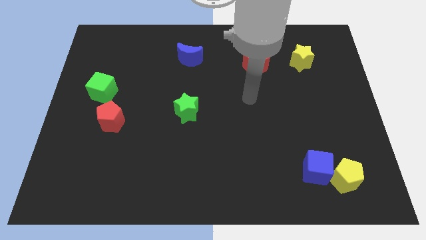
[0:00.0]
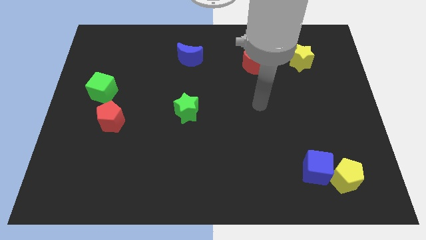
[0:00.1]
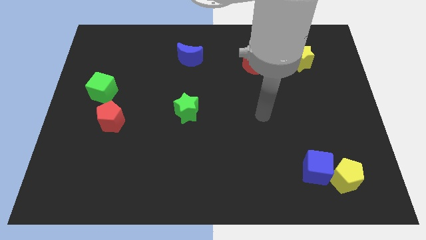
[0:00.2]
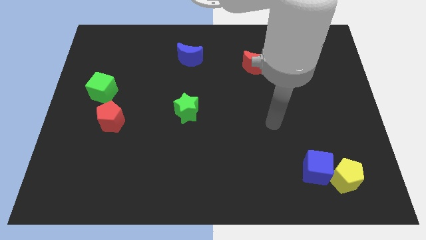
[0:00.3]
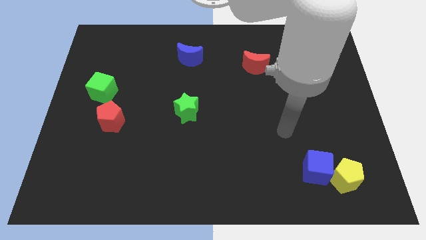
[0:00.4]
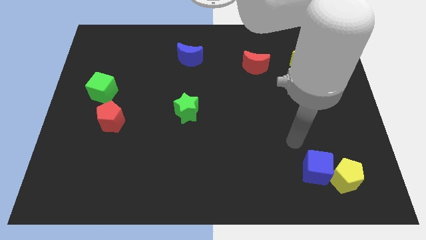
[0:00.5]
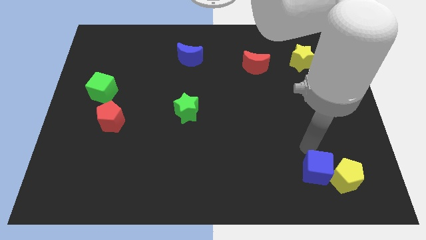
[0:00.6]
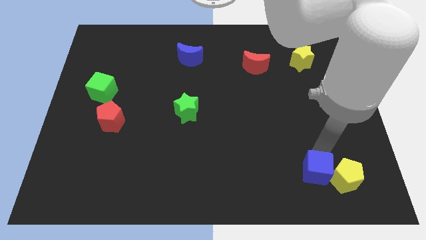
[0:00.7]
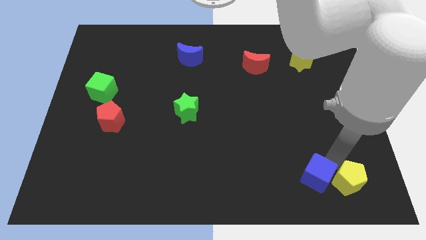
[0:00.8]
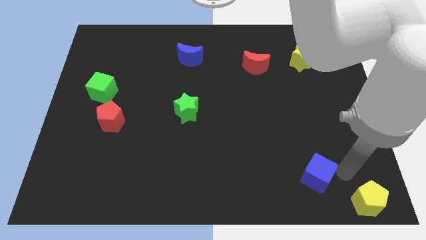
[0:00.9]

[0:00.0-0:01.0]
pull the blue cube apart from the yellow pentagon

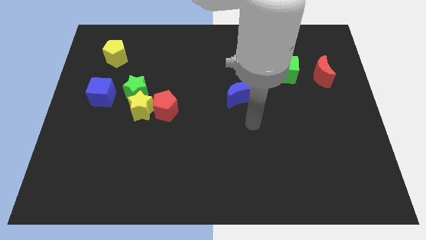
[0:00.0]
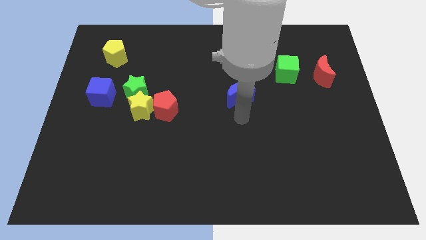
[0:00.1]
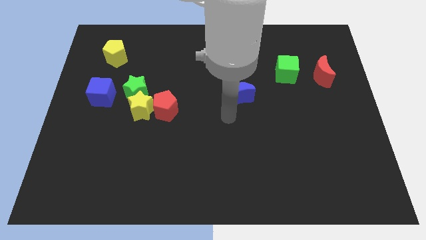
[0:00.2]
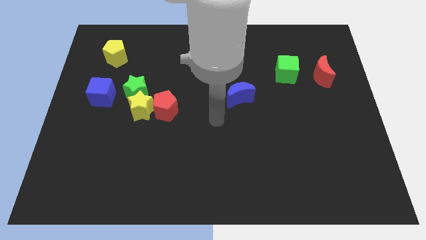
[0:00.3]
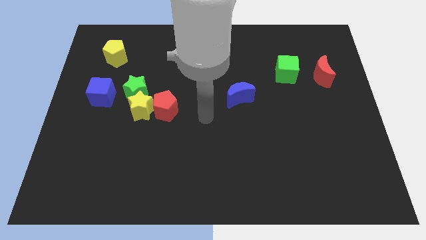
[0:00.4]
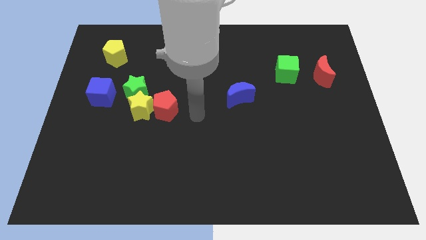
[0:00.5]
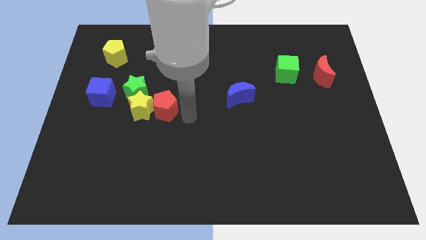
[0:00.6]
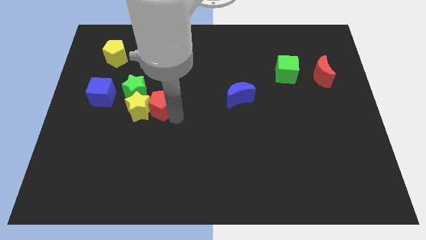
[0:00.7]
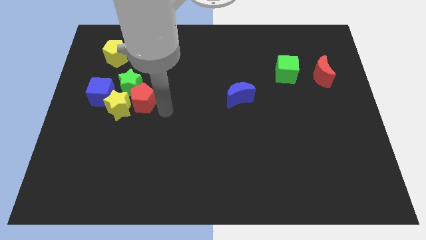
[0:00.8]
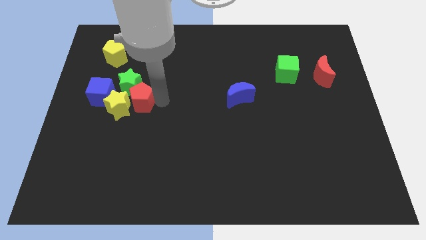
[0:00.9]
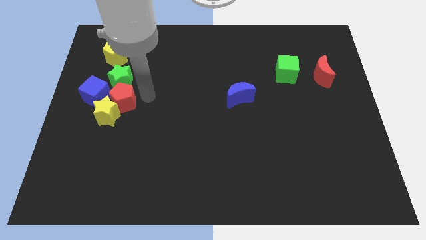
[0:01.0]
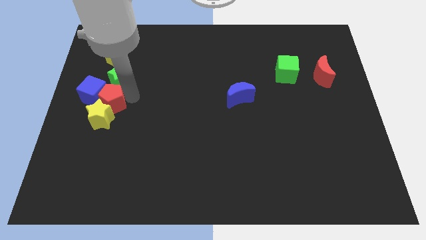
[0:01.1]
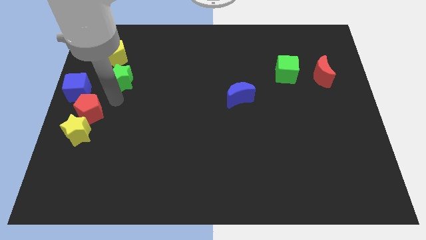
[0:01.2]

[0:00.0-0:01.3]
move the yellow star away from the red pentagon and green star

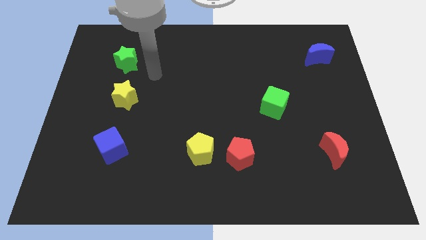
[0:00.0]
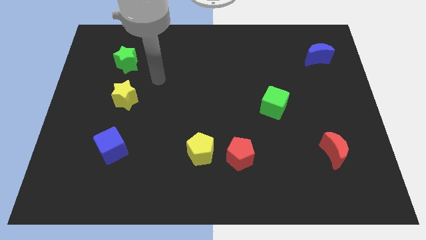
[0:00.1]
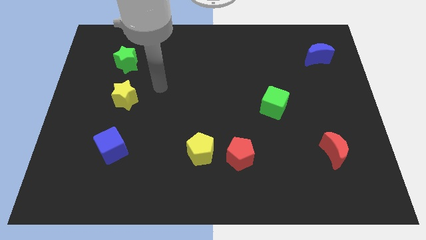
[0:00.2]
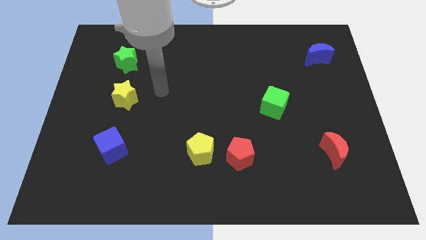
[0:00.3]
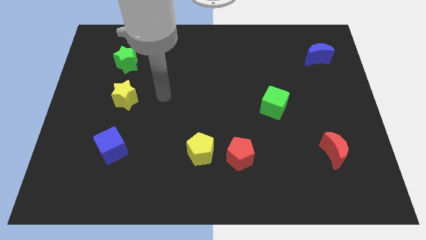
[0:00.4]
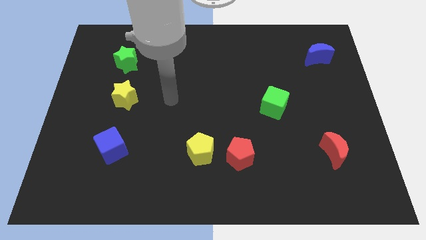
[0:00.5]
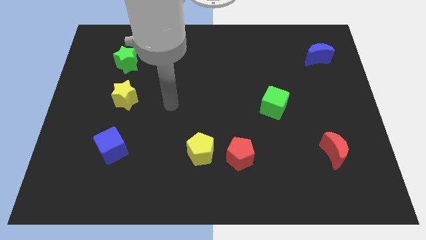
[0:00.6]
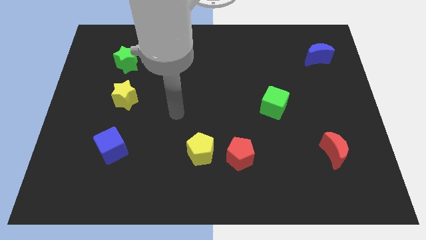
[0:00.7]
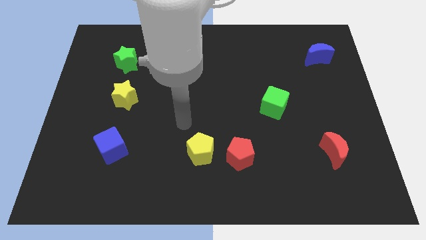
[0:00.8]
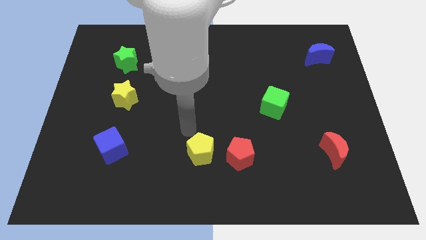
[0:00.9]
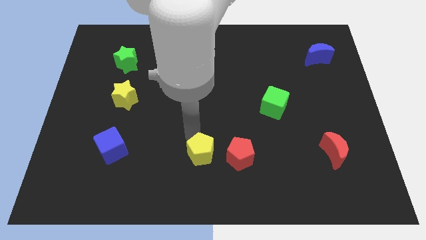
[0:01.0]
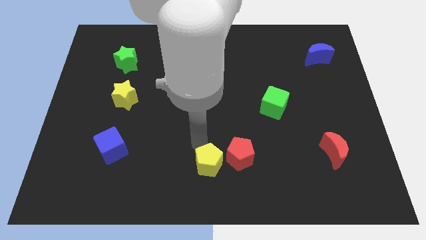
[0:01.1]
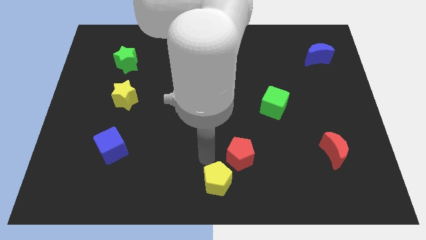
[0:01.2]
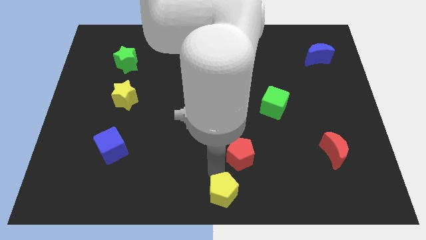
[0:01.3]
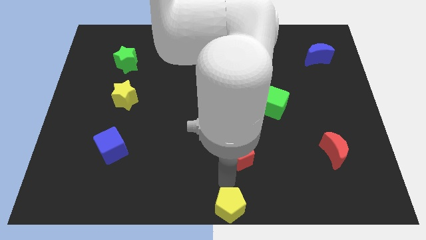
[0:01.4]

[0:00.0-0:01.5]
move the red pentagon away from the yellow pentagon

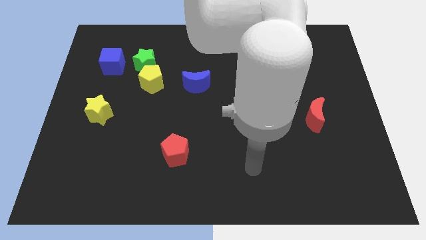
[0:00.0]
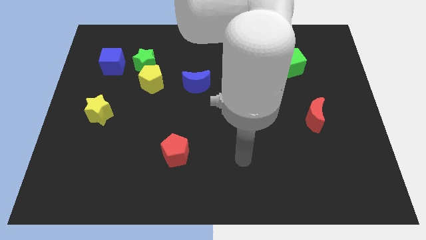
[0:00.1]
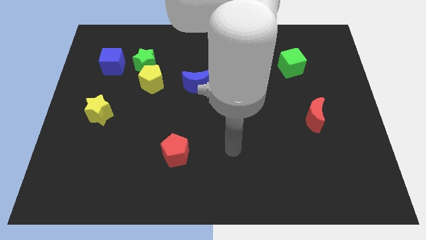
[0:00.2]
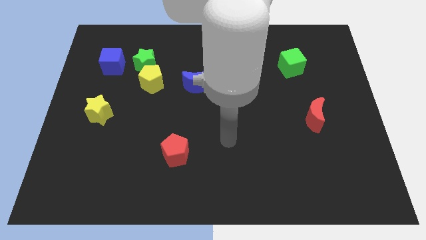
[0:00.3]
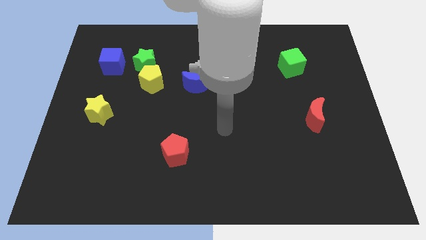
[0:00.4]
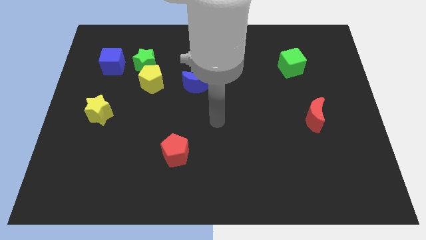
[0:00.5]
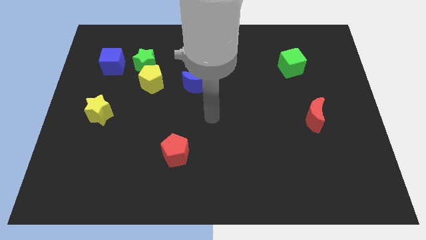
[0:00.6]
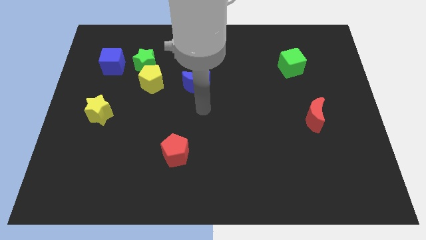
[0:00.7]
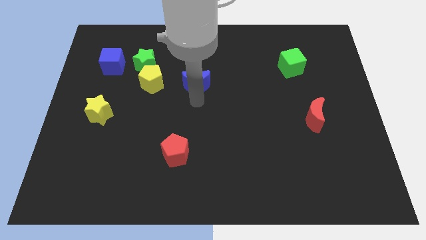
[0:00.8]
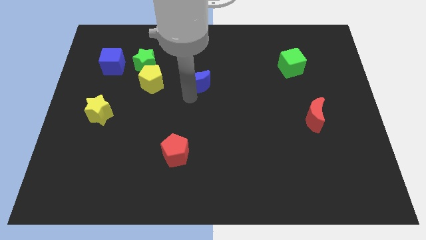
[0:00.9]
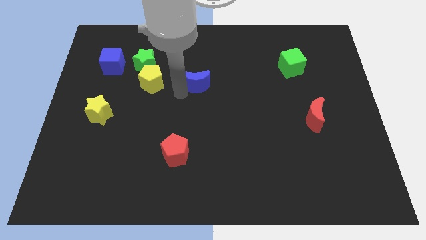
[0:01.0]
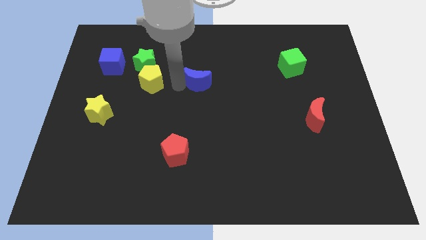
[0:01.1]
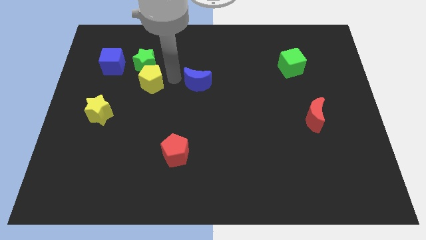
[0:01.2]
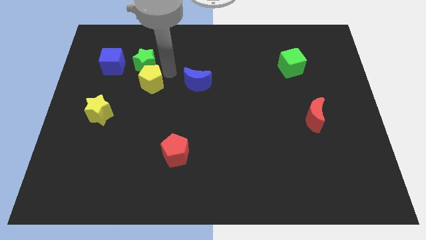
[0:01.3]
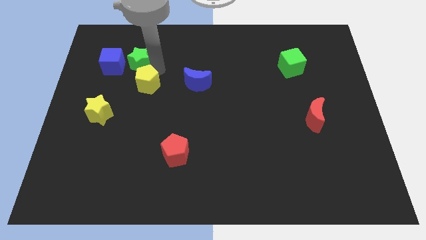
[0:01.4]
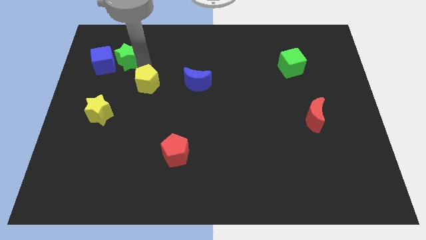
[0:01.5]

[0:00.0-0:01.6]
separate the yellow pentagon from the green star

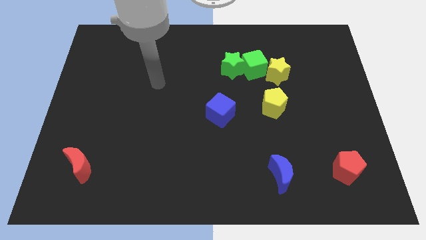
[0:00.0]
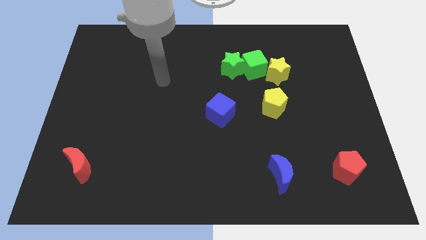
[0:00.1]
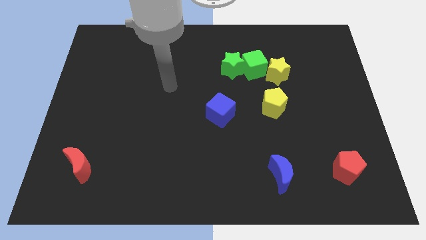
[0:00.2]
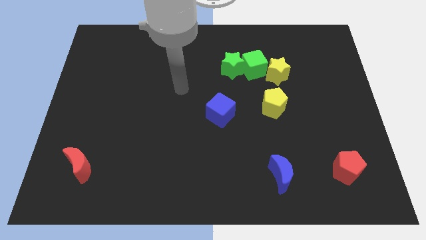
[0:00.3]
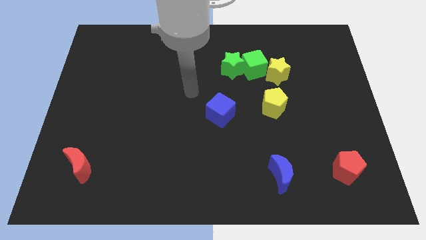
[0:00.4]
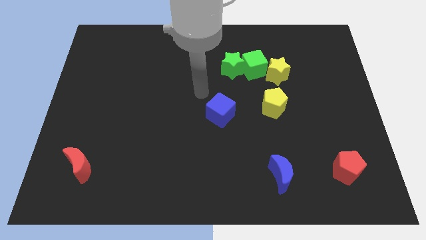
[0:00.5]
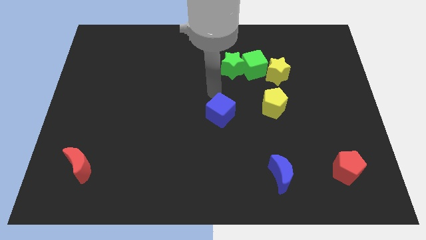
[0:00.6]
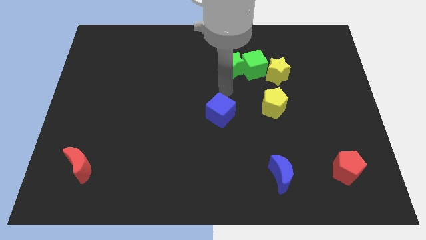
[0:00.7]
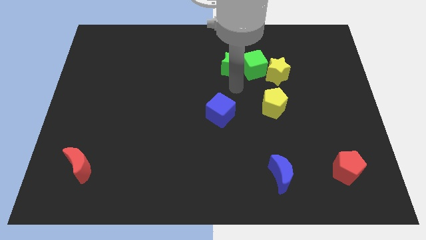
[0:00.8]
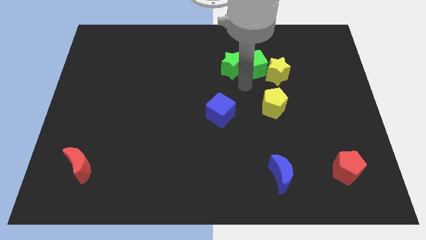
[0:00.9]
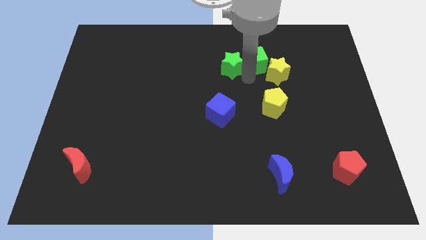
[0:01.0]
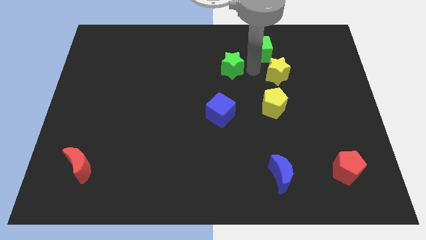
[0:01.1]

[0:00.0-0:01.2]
pull the green star apart from the green cube

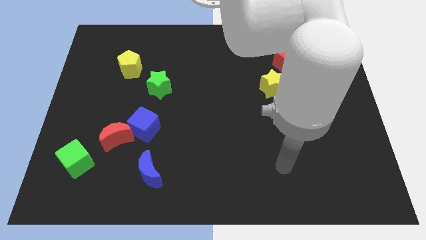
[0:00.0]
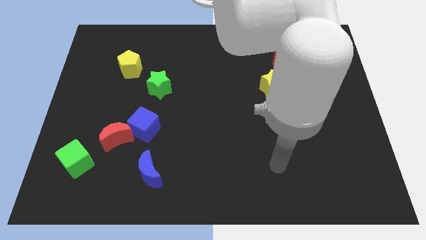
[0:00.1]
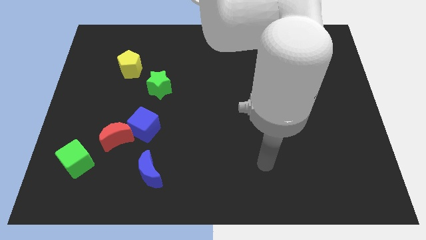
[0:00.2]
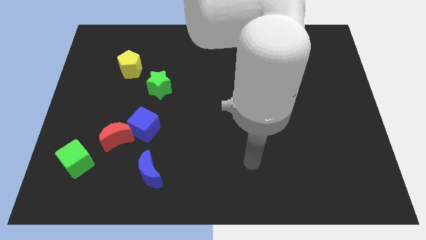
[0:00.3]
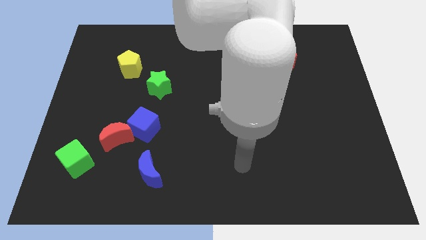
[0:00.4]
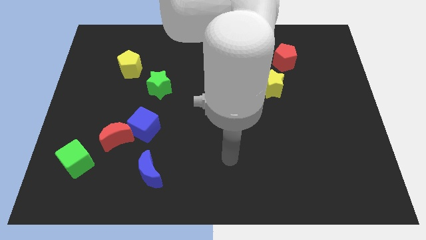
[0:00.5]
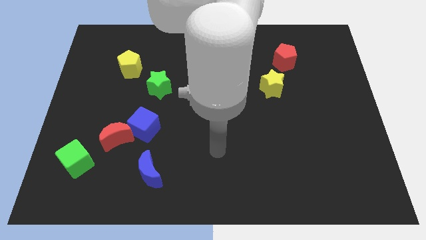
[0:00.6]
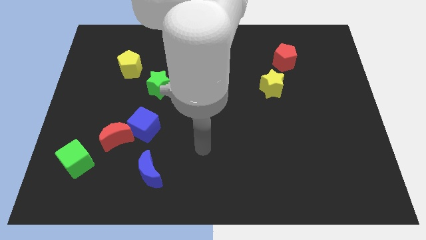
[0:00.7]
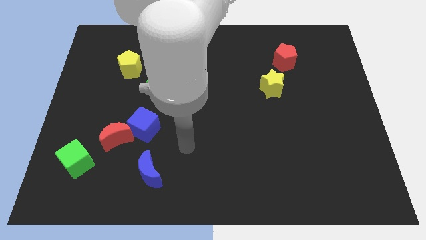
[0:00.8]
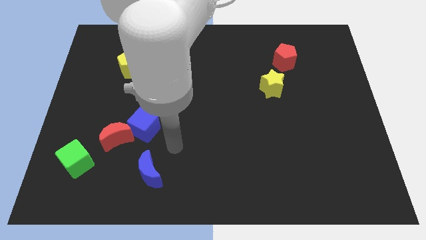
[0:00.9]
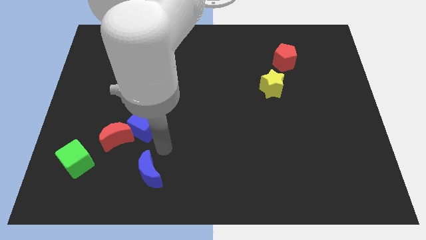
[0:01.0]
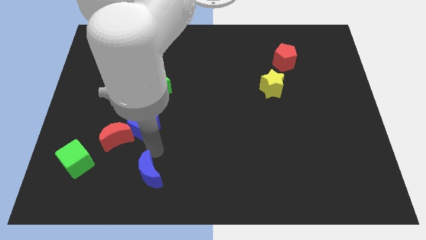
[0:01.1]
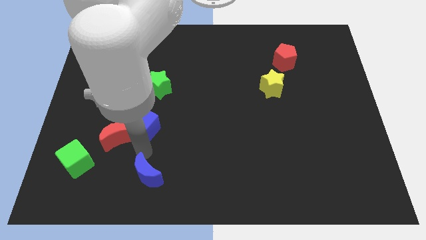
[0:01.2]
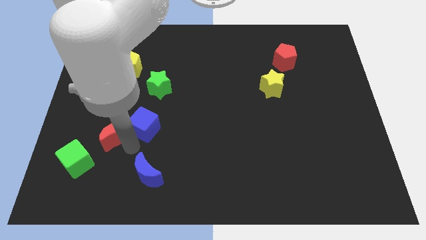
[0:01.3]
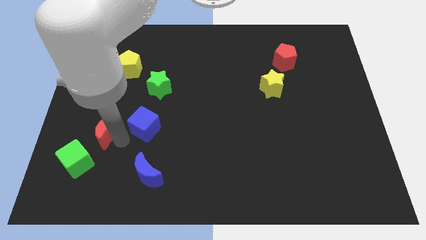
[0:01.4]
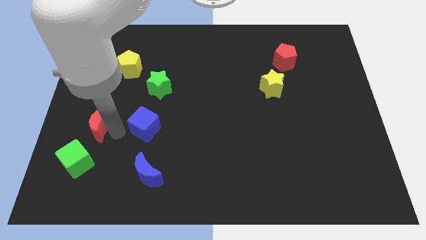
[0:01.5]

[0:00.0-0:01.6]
pull the blue cube apart from the red moon

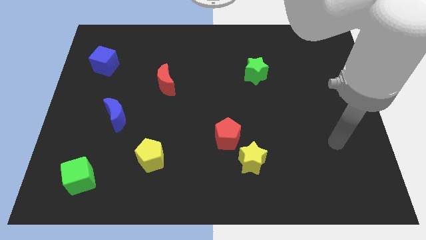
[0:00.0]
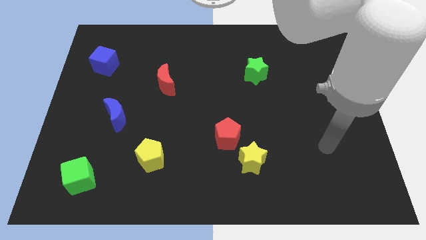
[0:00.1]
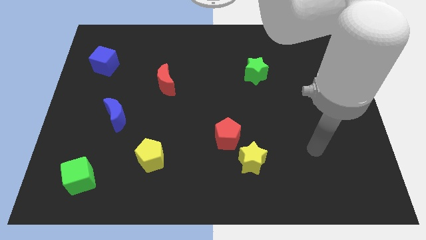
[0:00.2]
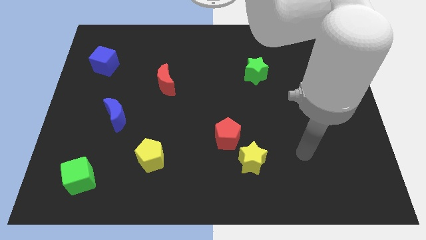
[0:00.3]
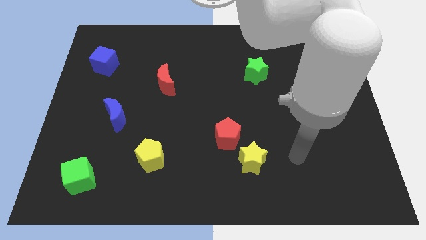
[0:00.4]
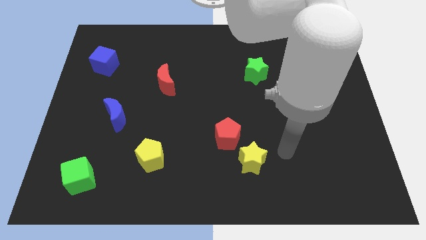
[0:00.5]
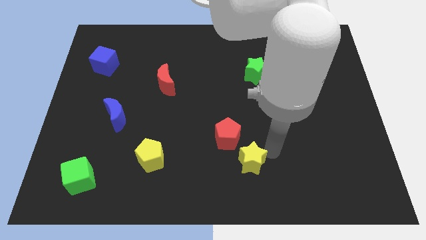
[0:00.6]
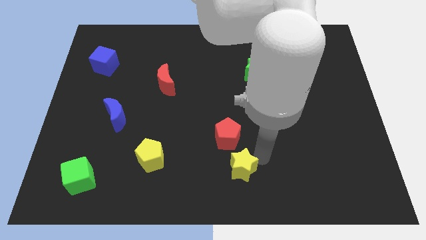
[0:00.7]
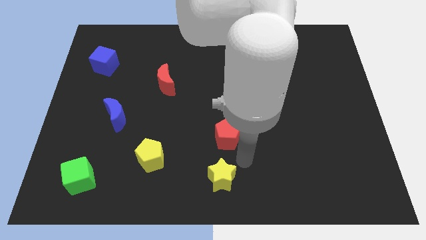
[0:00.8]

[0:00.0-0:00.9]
pull the red pentagon apart from the yellow star

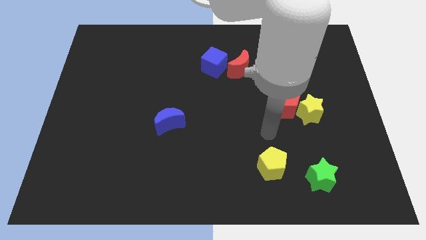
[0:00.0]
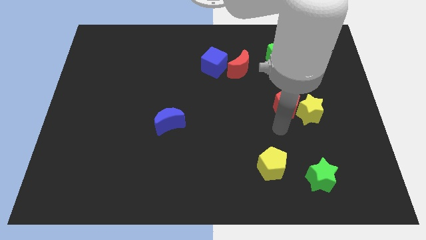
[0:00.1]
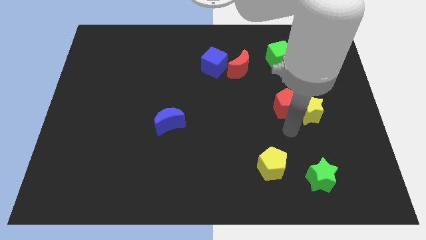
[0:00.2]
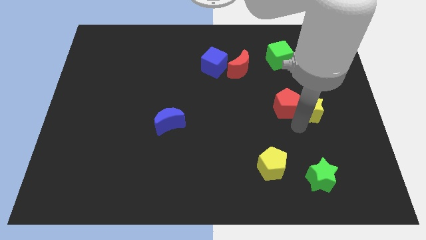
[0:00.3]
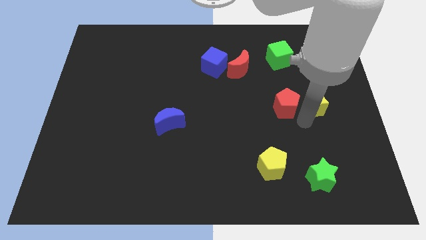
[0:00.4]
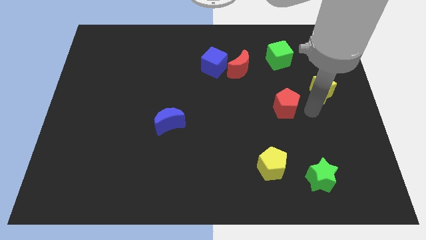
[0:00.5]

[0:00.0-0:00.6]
move the red pentagon away from the yellow star
